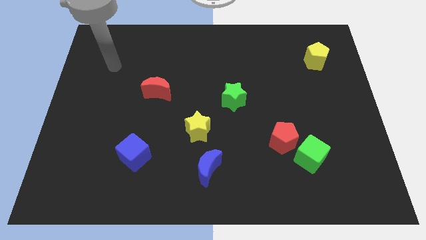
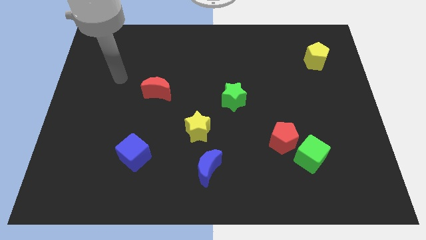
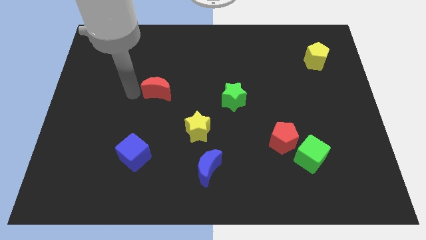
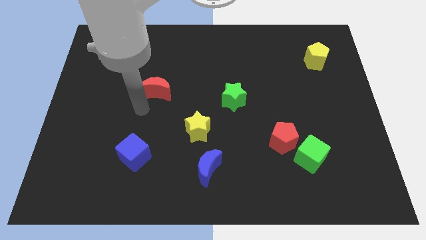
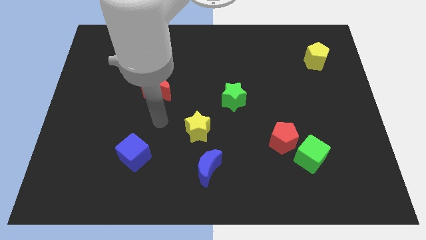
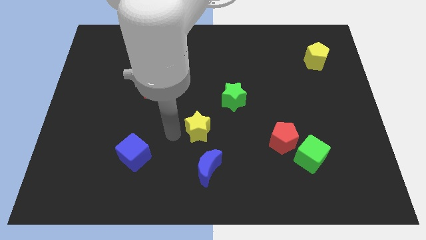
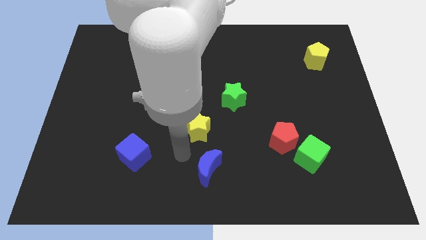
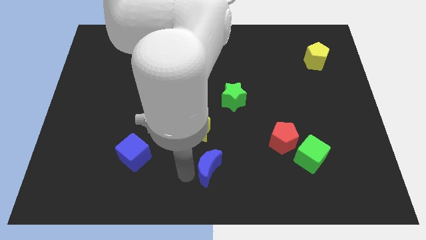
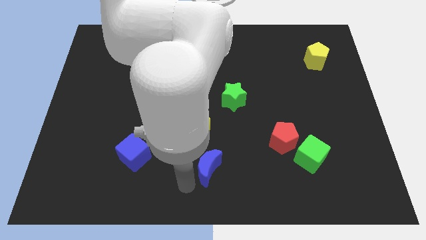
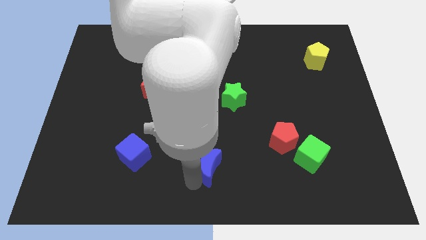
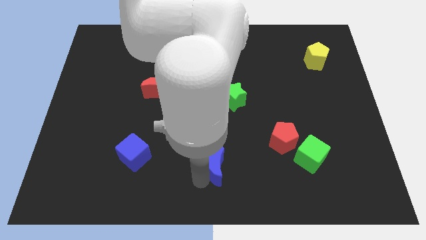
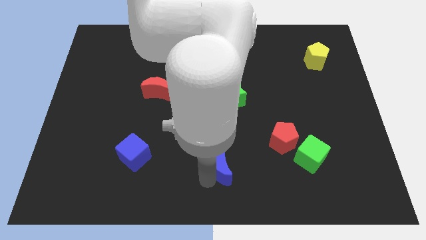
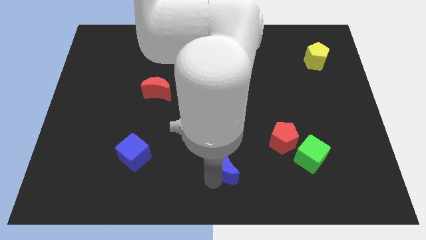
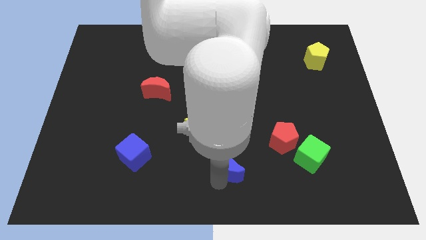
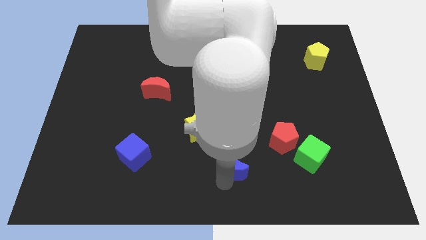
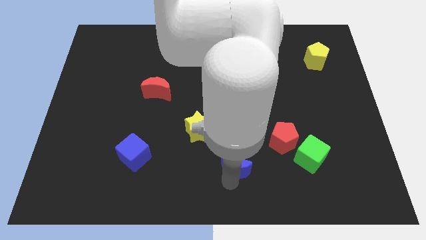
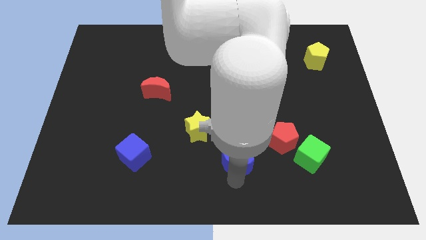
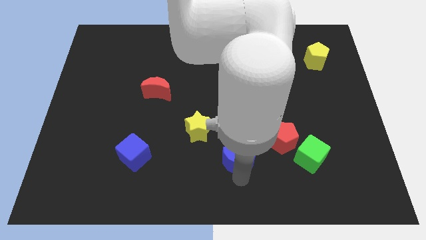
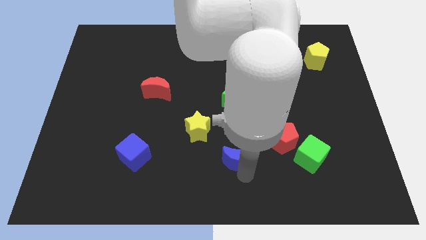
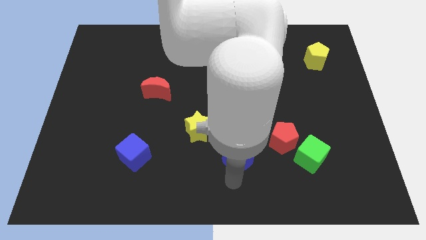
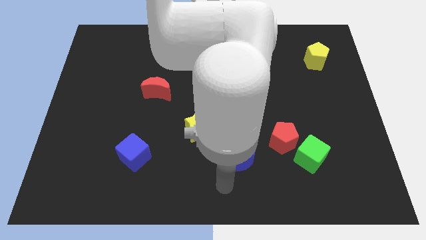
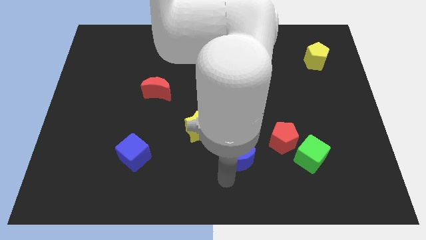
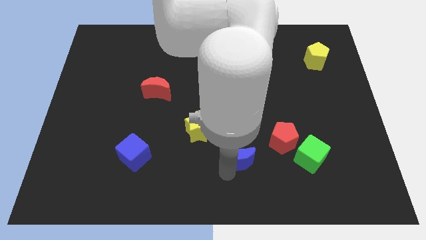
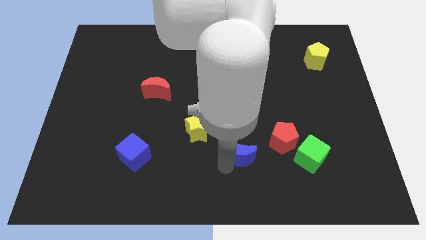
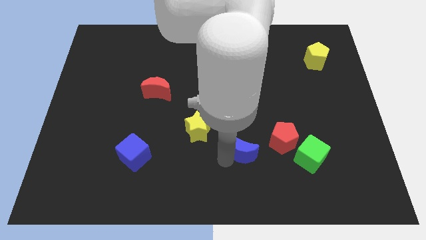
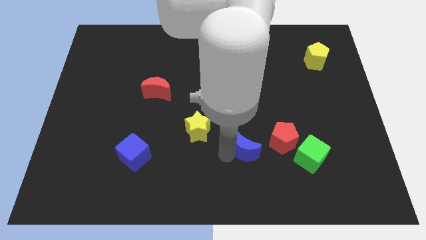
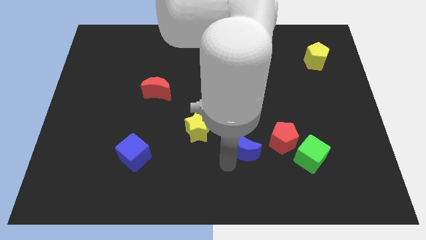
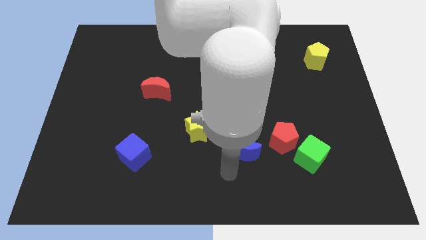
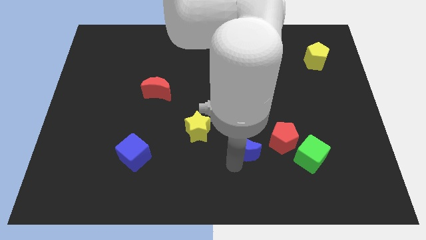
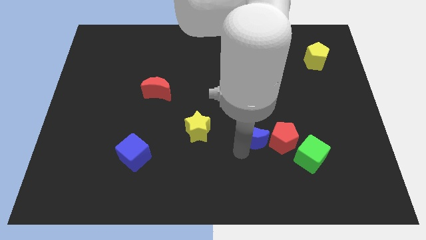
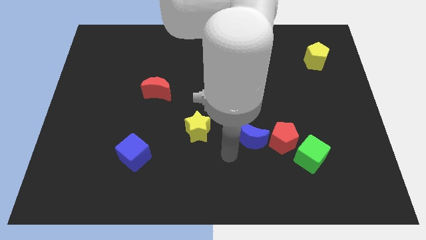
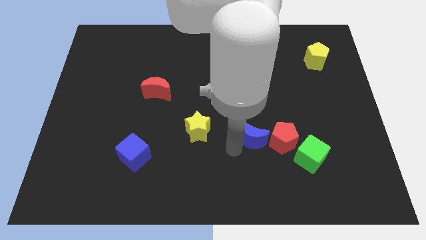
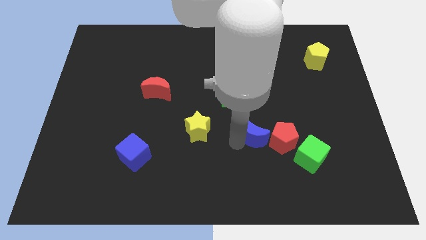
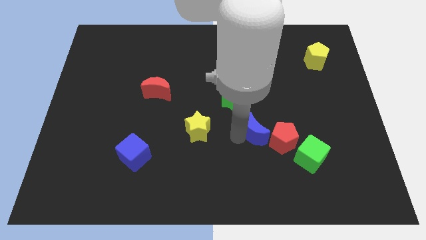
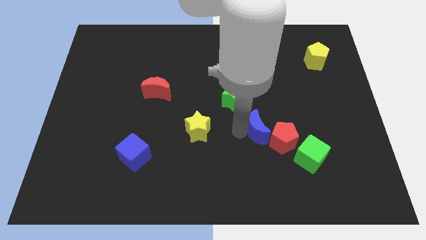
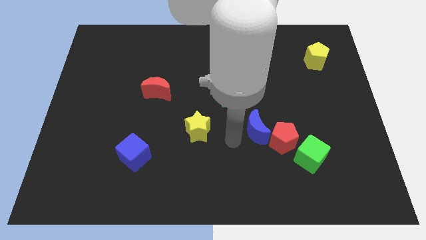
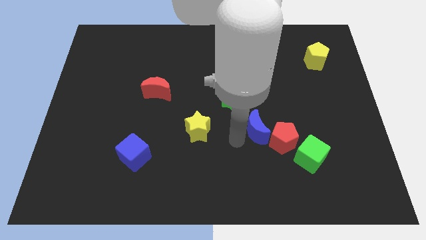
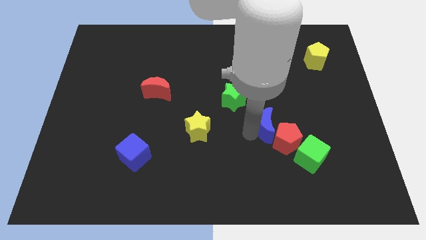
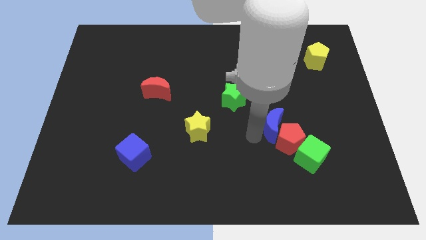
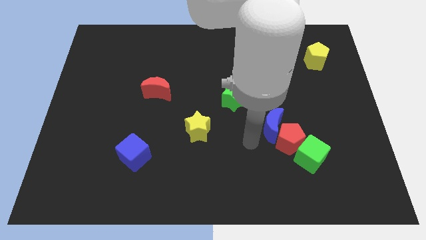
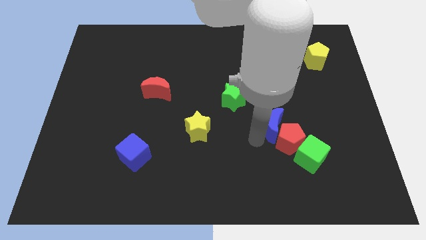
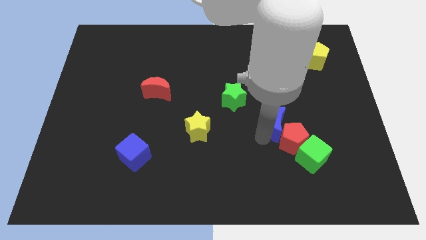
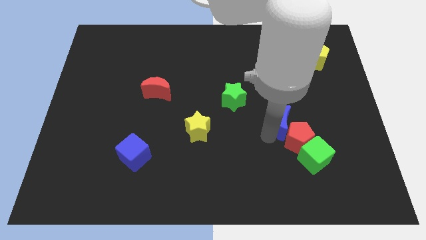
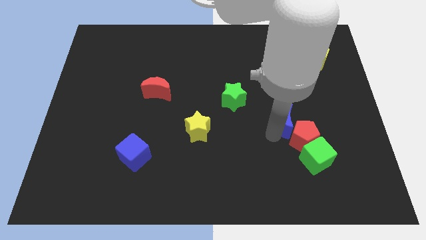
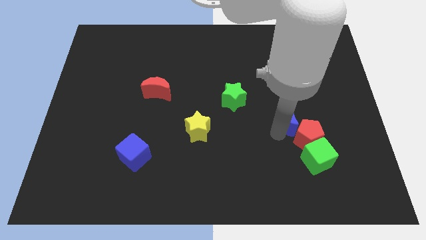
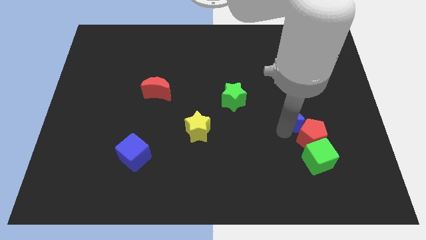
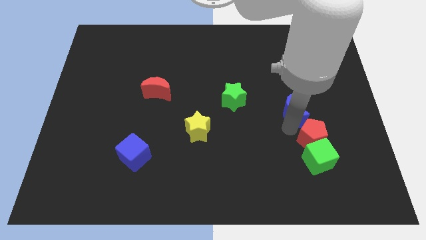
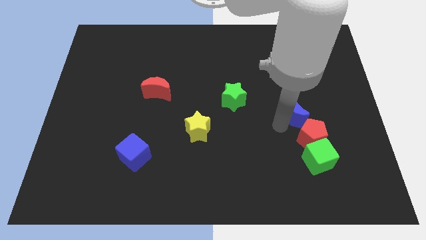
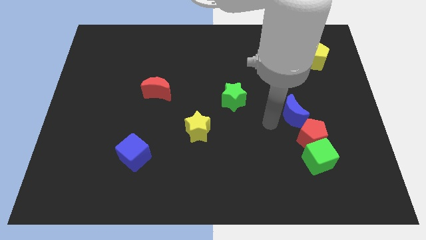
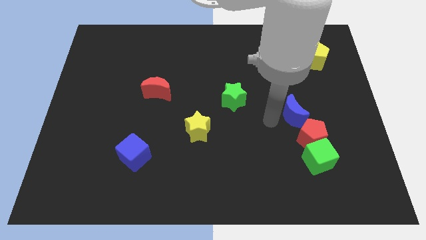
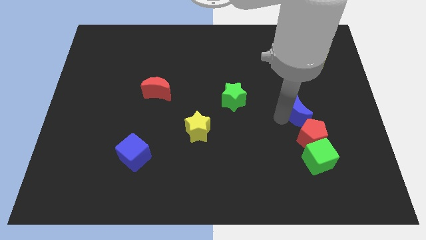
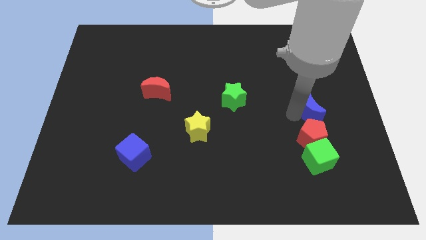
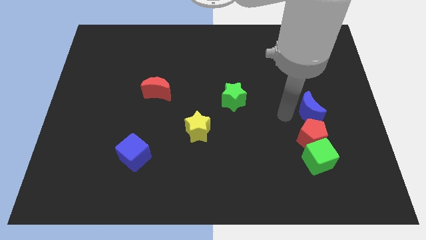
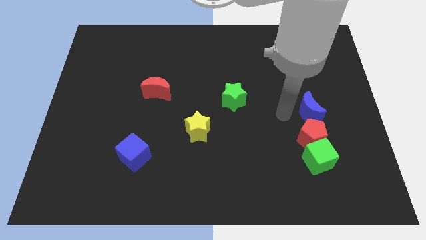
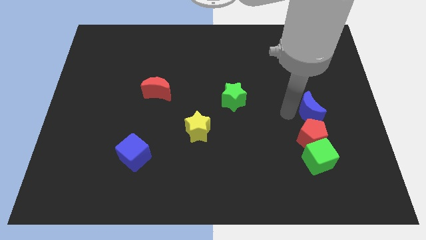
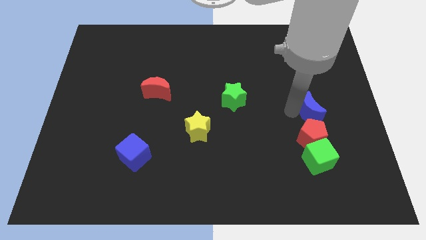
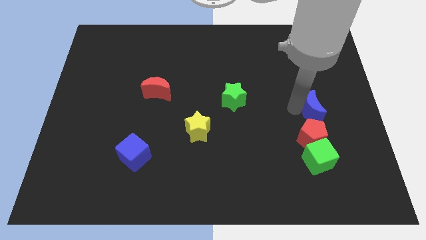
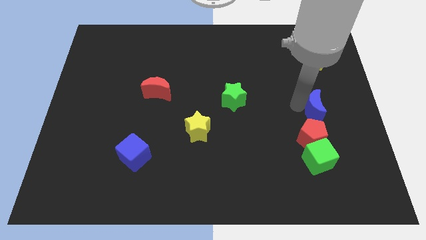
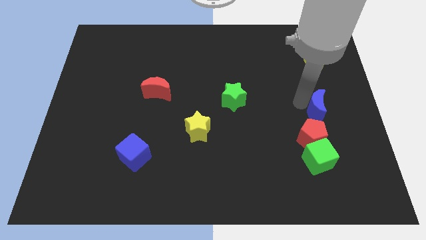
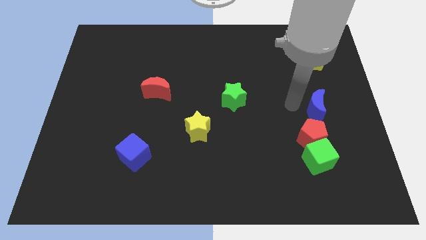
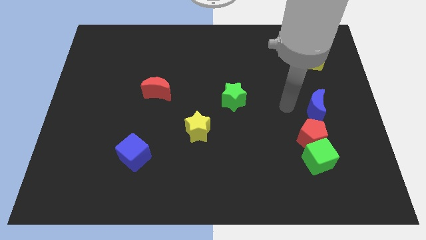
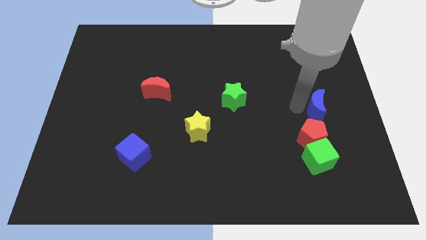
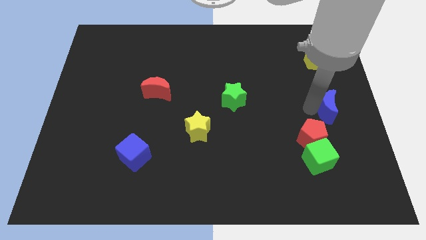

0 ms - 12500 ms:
put the blue moon to the right side of the board
